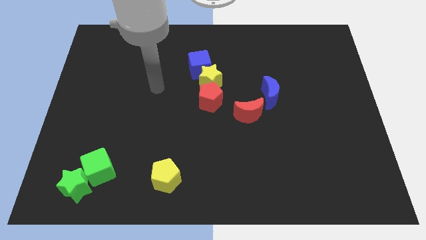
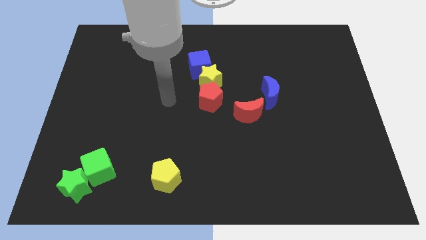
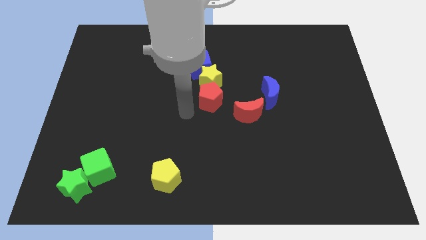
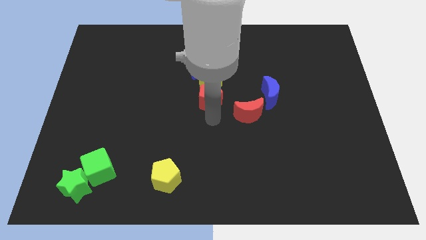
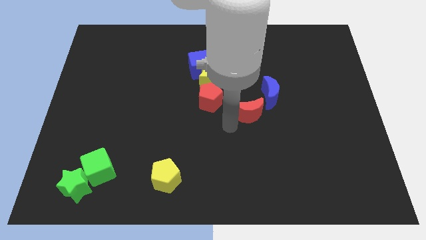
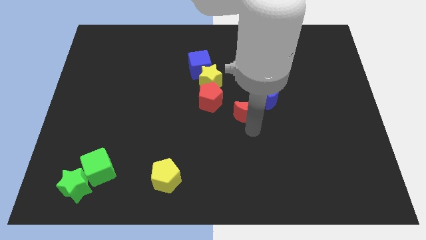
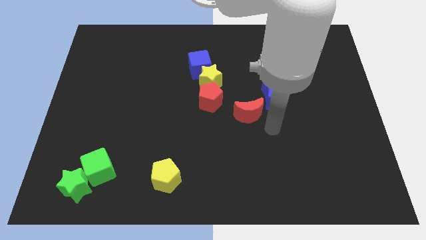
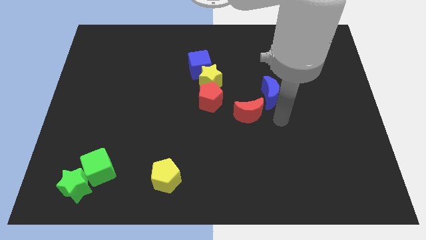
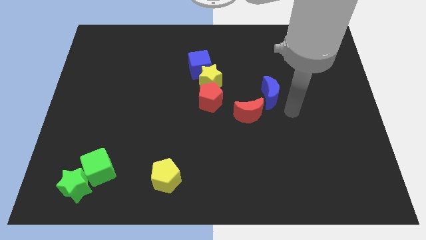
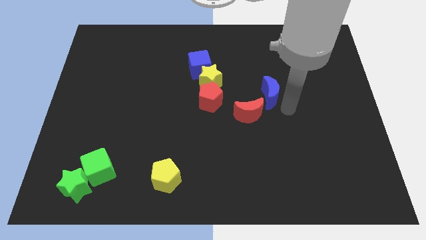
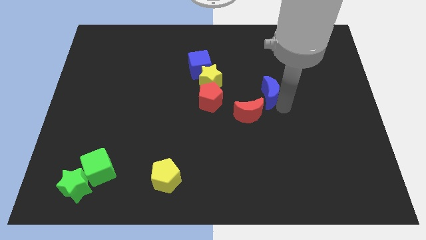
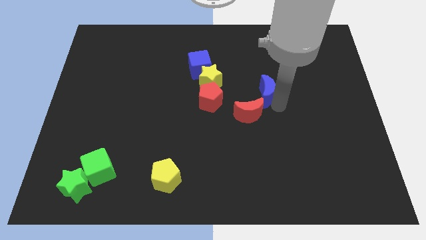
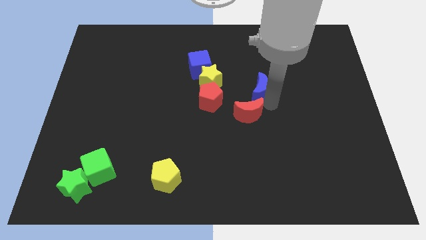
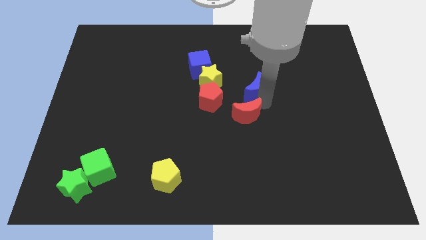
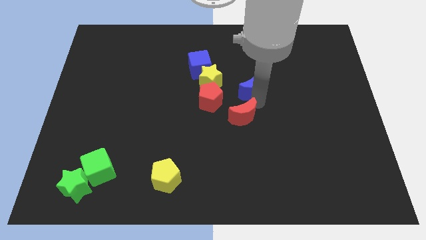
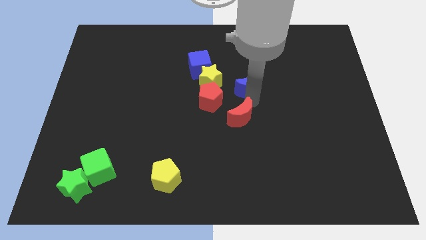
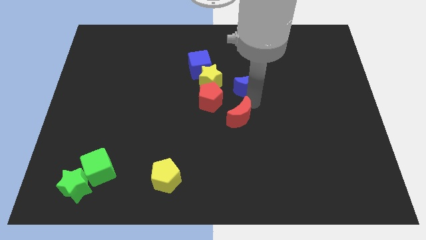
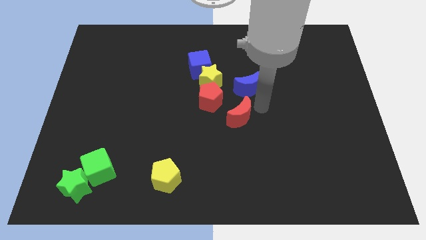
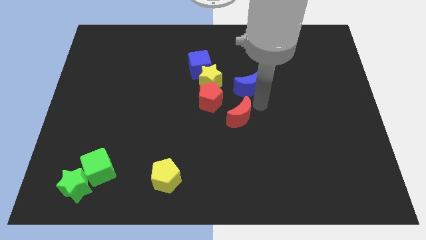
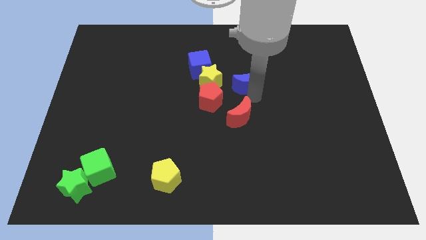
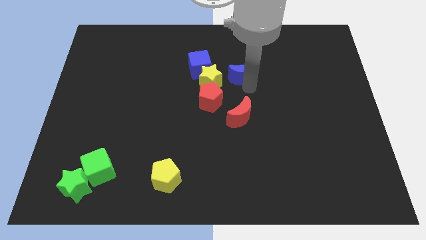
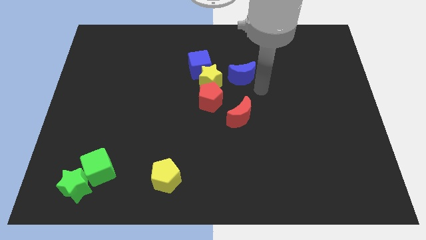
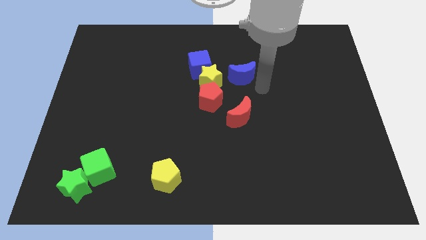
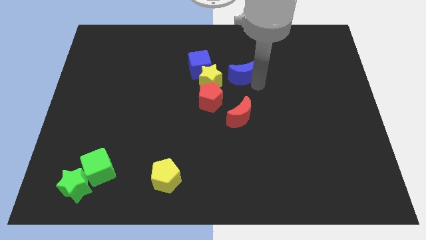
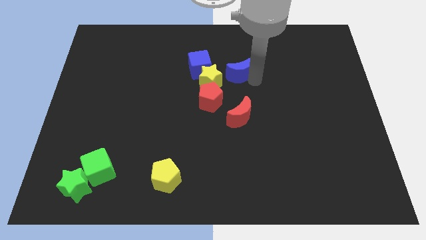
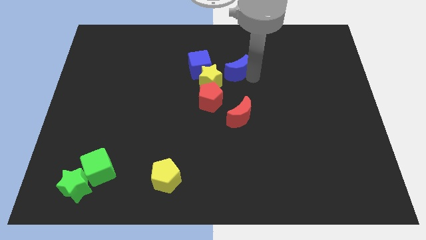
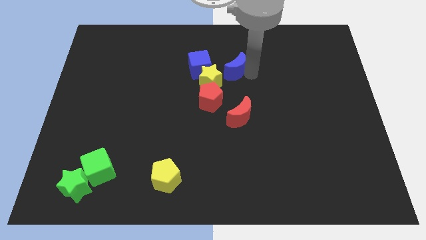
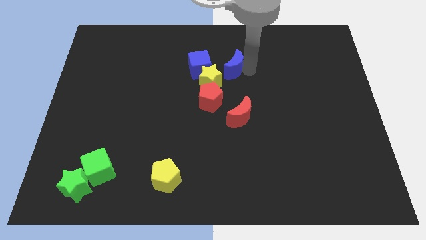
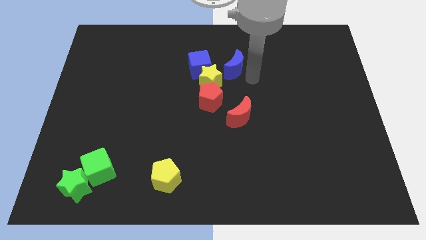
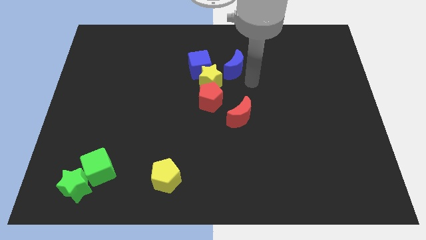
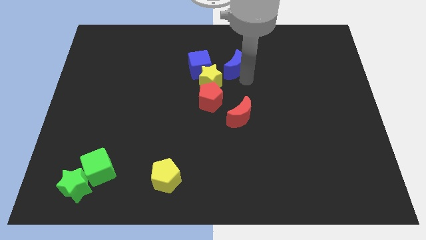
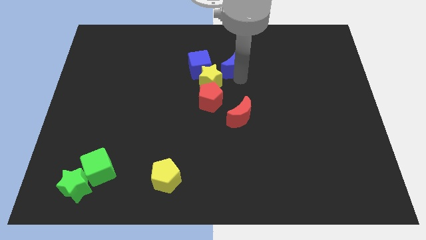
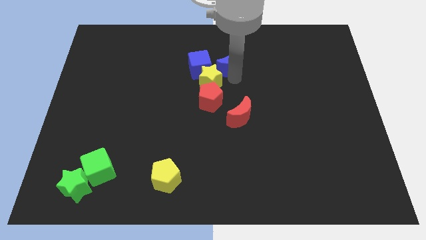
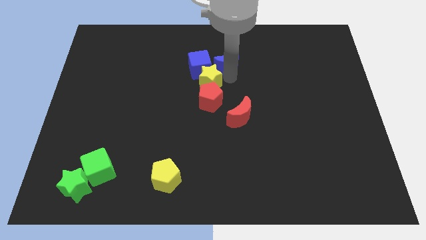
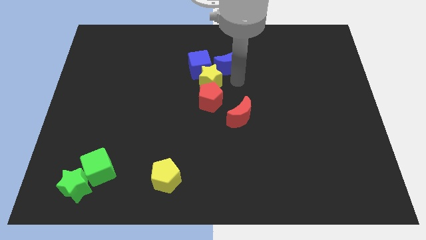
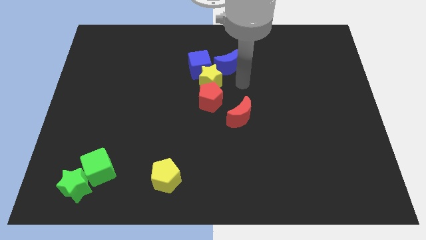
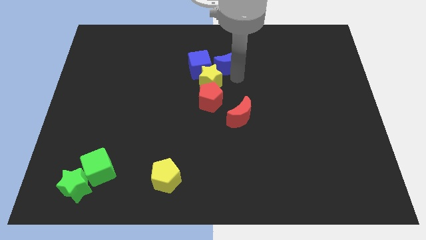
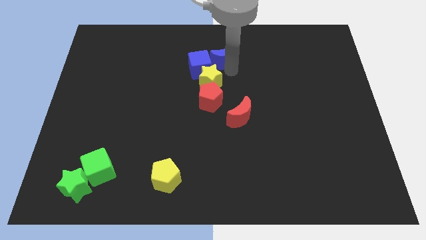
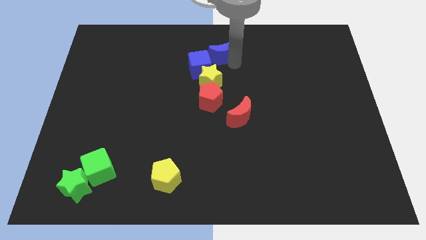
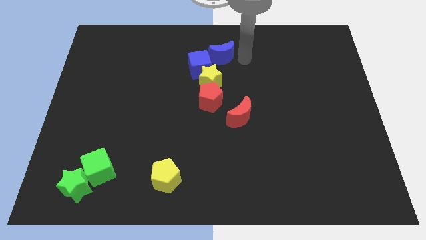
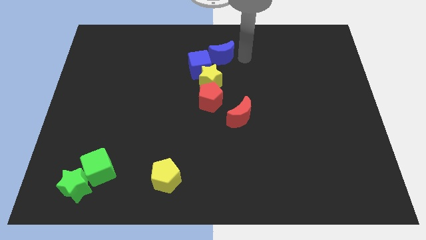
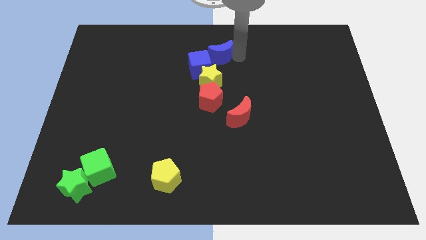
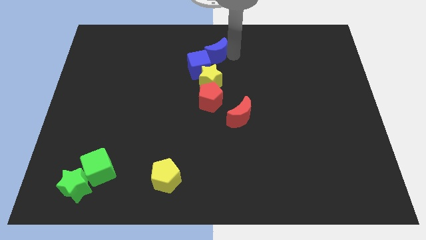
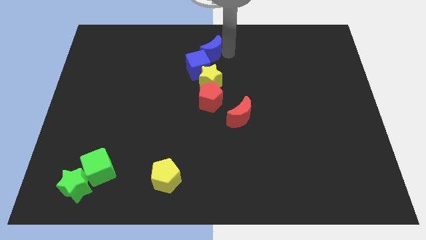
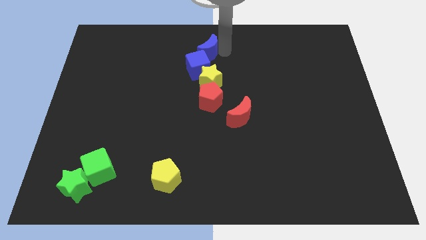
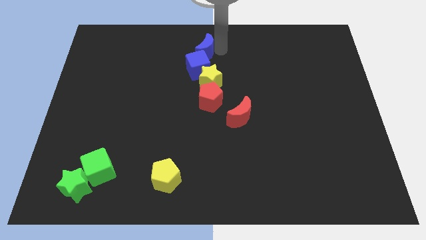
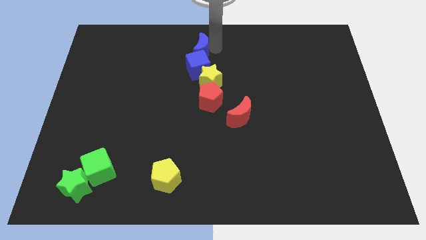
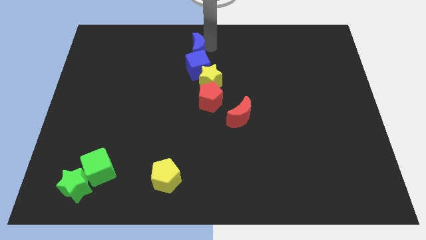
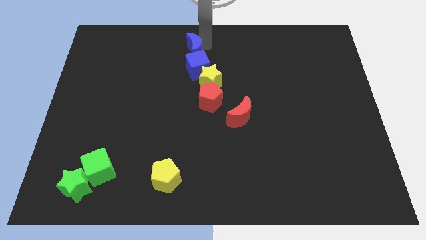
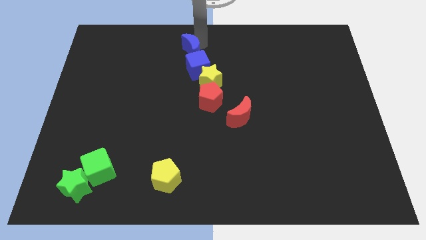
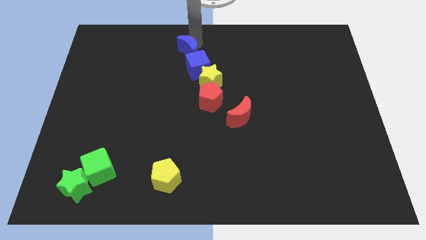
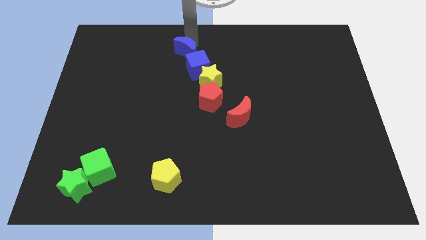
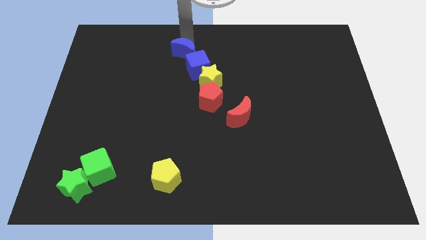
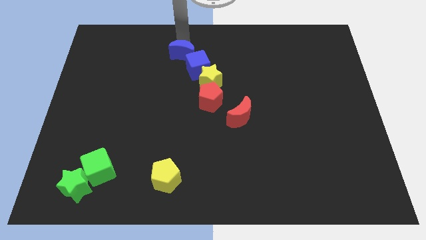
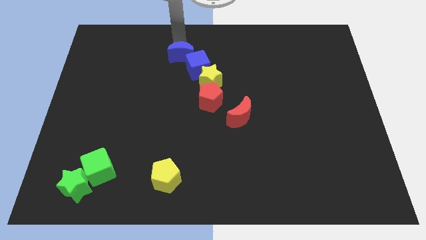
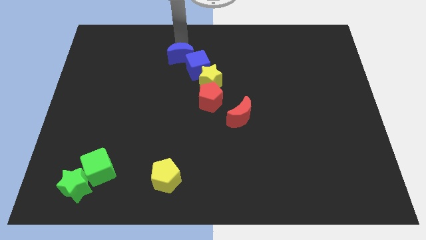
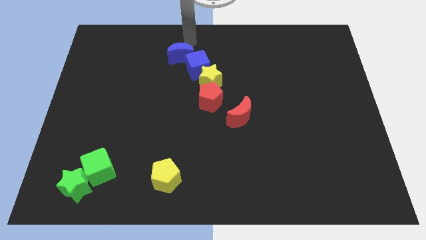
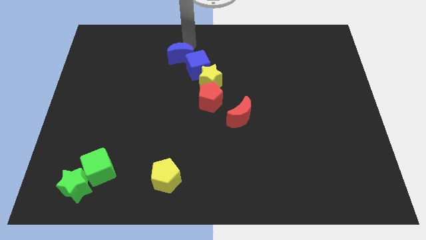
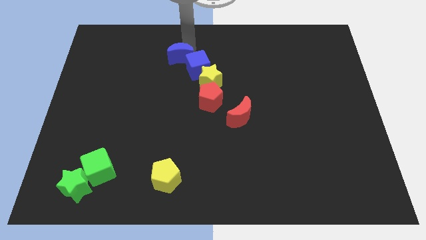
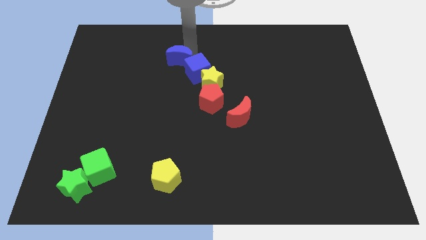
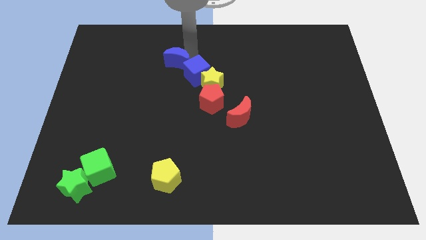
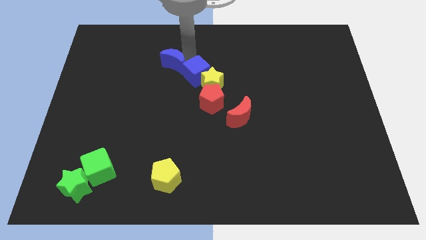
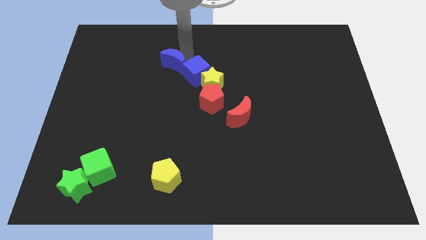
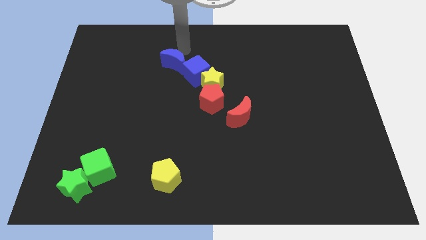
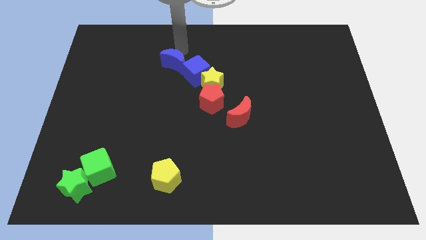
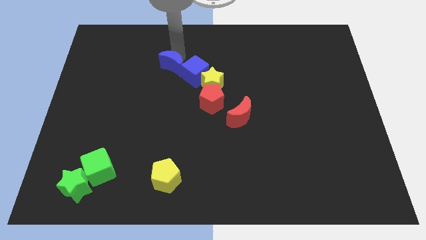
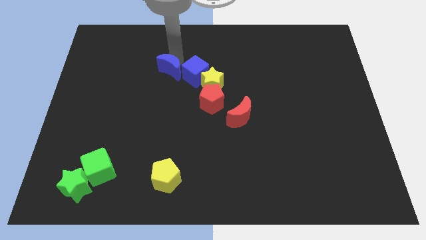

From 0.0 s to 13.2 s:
push the blue moon to the left

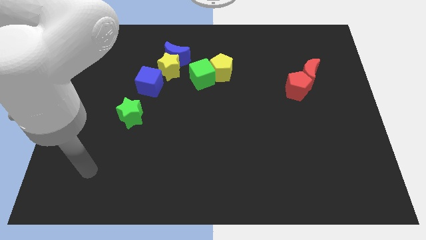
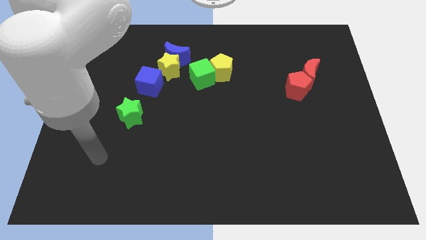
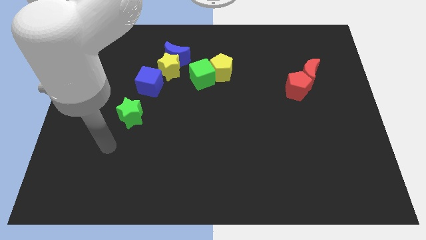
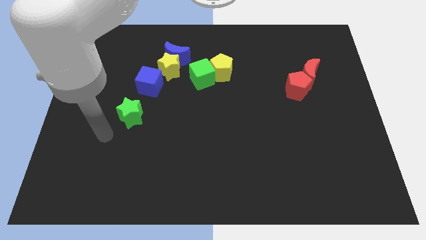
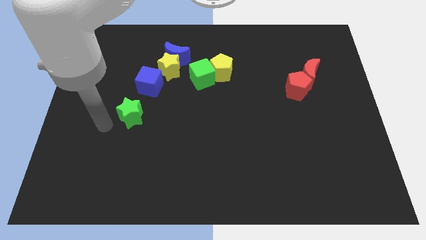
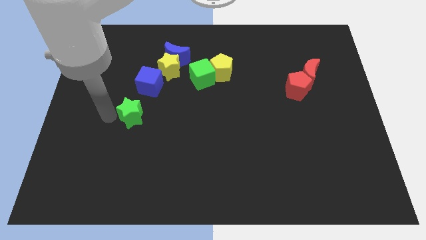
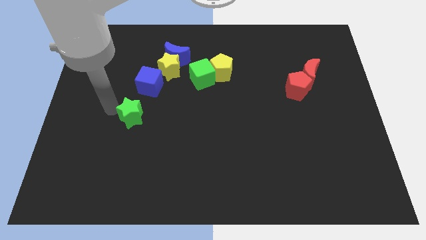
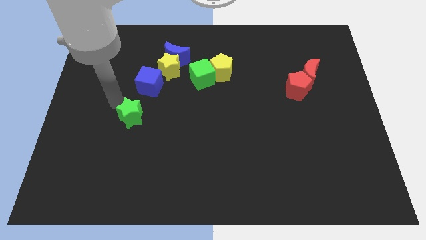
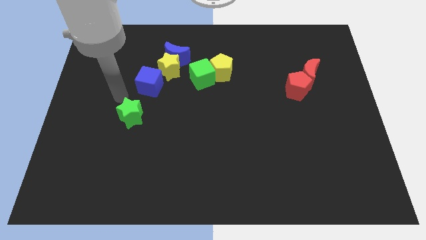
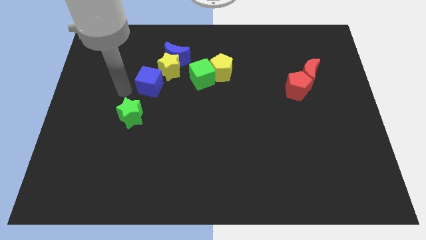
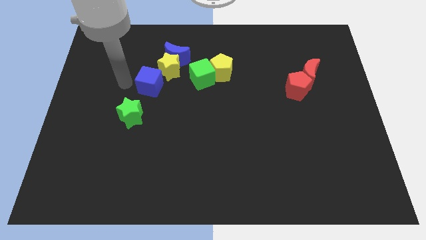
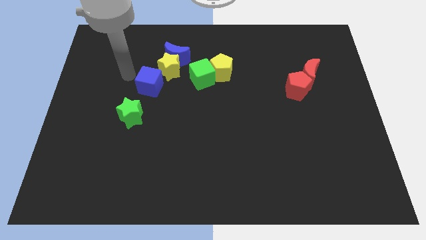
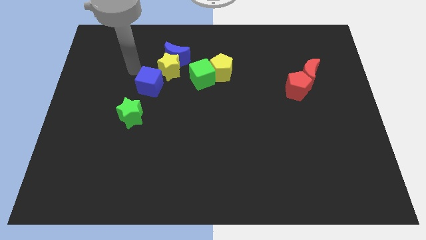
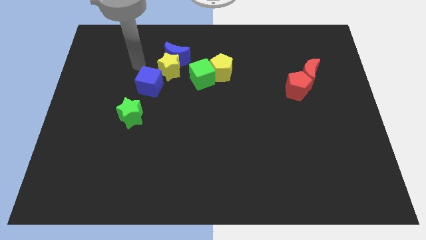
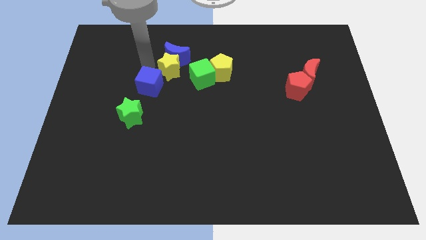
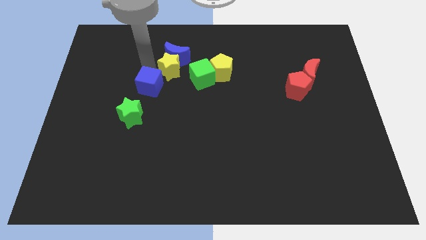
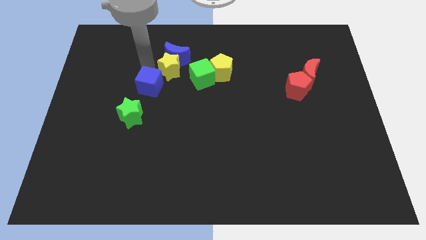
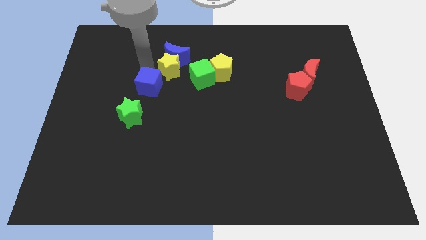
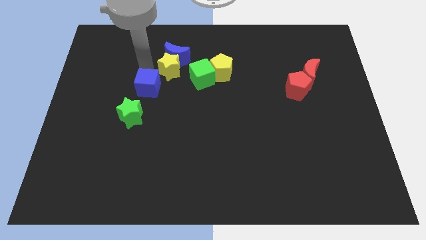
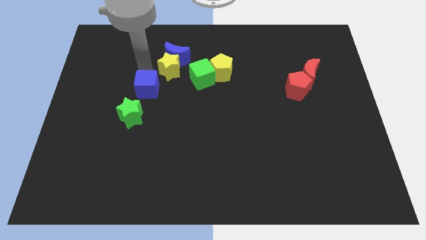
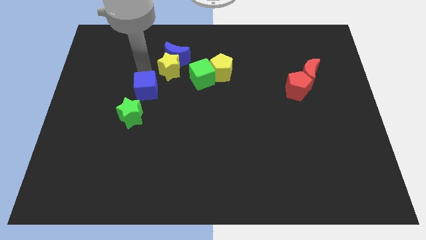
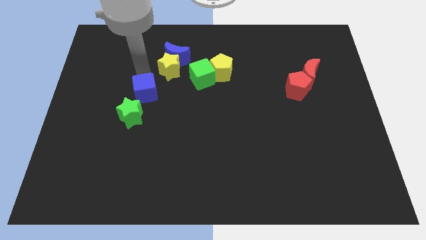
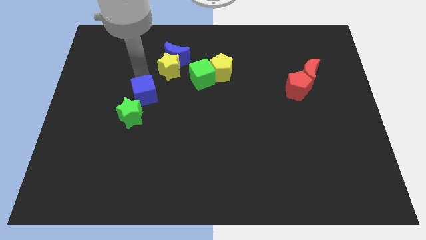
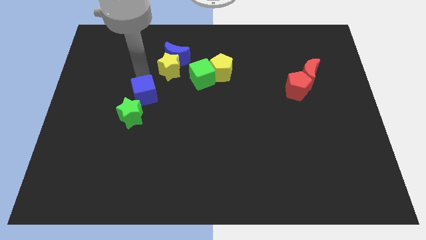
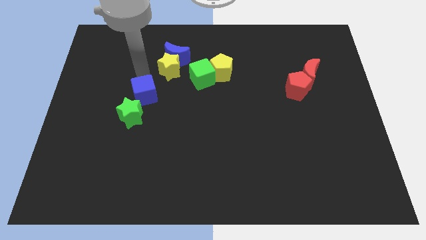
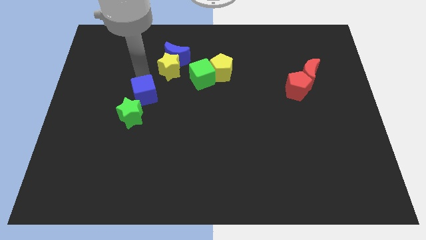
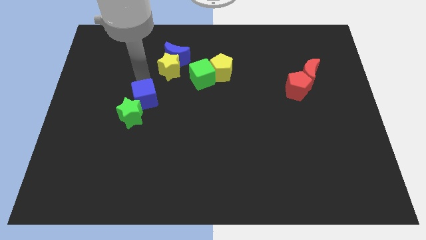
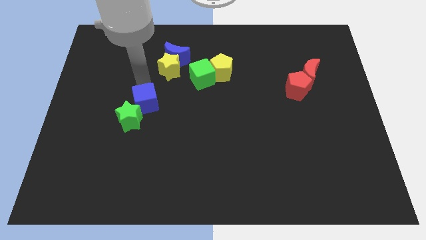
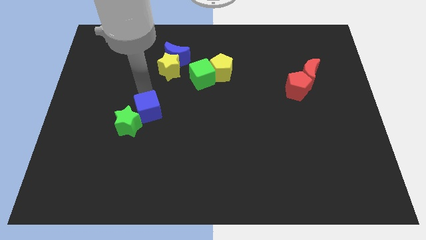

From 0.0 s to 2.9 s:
slide the blue cube down a little bit
